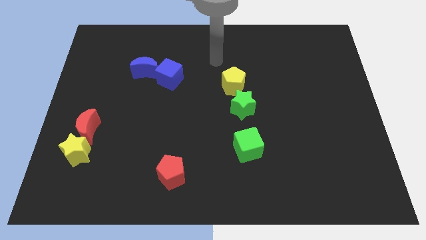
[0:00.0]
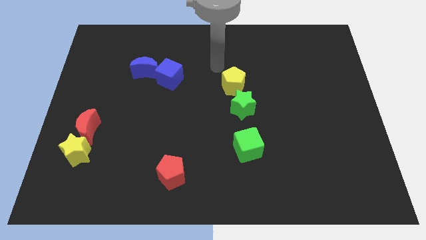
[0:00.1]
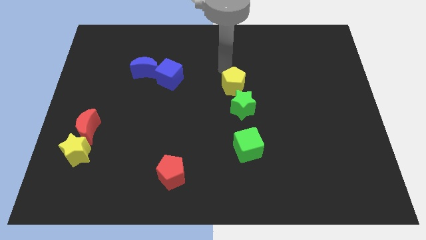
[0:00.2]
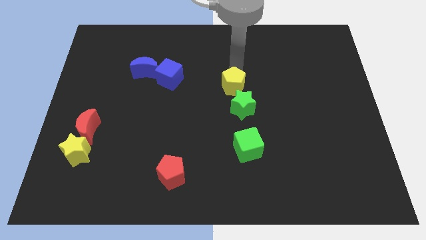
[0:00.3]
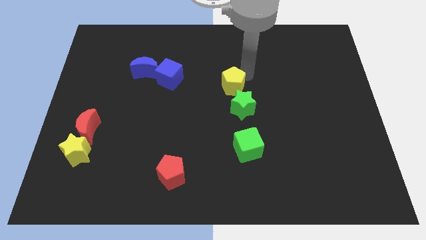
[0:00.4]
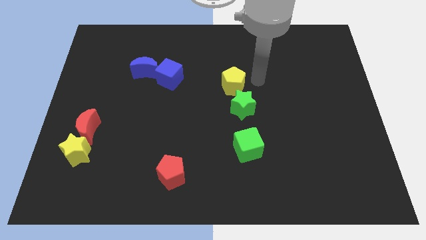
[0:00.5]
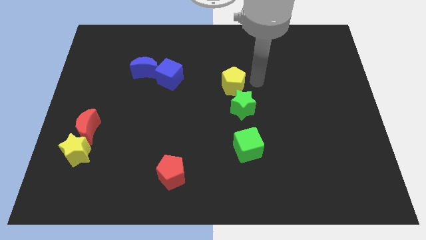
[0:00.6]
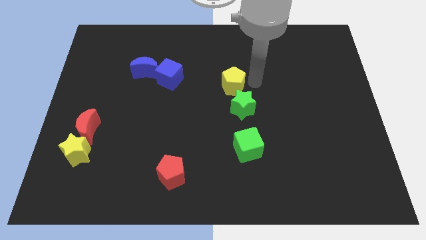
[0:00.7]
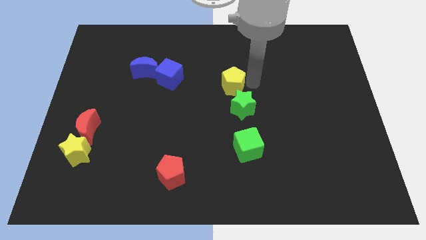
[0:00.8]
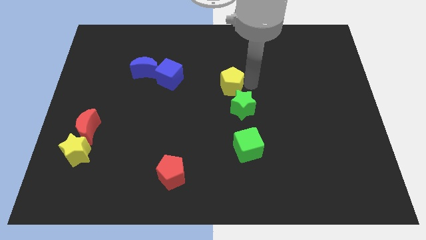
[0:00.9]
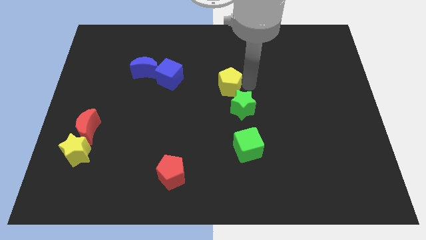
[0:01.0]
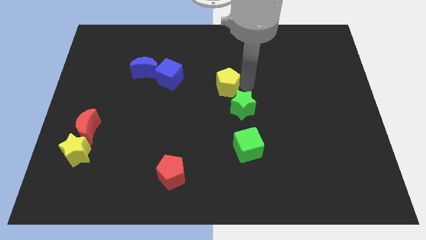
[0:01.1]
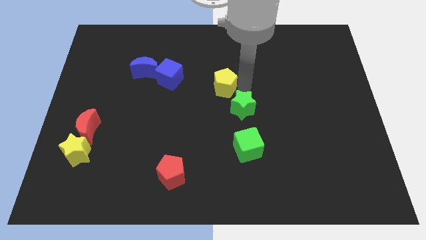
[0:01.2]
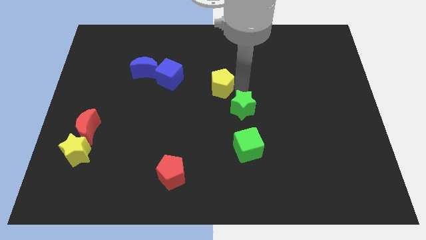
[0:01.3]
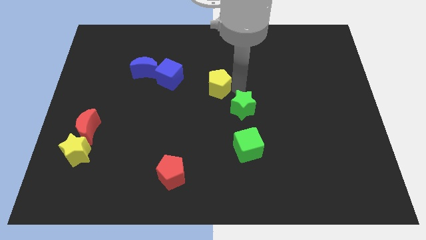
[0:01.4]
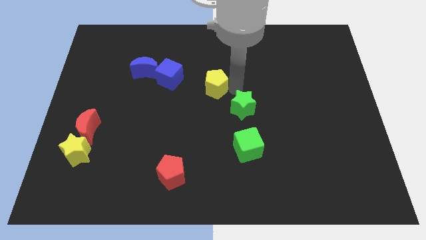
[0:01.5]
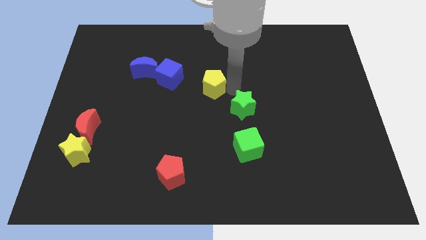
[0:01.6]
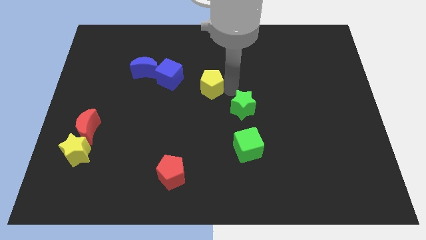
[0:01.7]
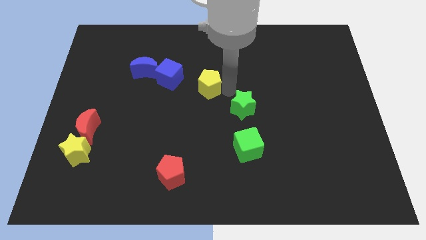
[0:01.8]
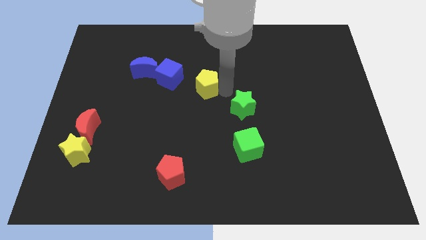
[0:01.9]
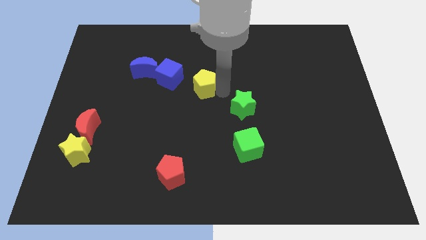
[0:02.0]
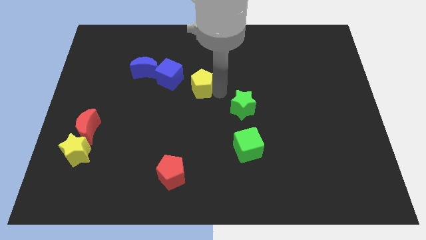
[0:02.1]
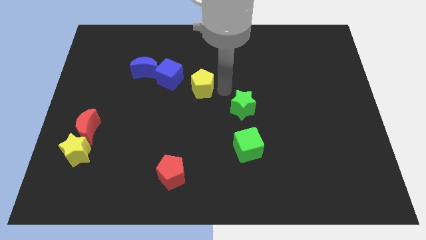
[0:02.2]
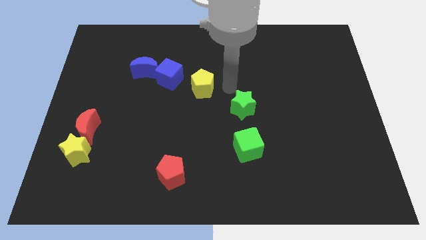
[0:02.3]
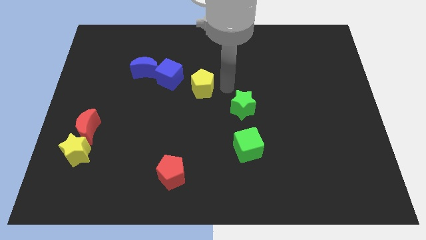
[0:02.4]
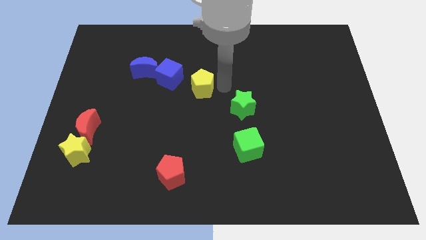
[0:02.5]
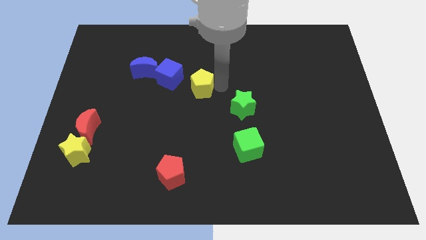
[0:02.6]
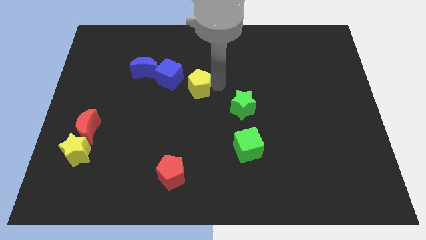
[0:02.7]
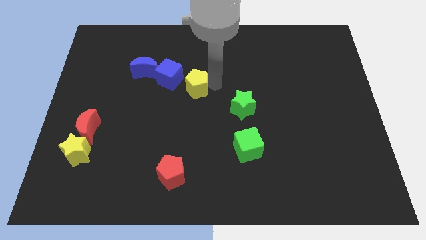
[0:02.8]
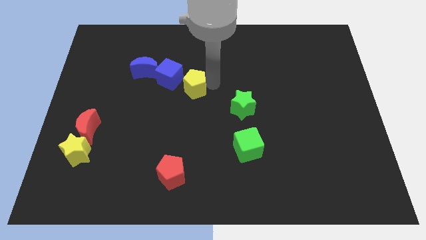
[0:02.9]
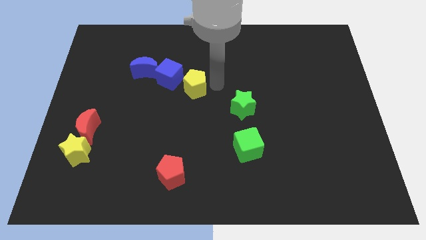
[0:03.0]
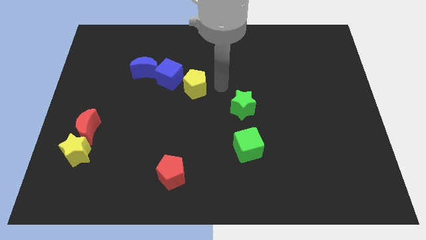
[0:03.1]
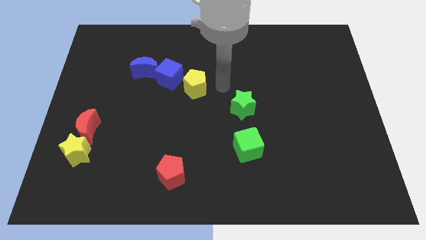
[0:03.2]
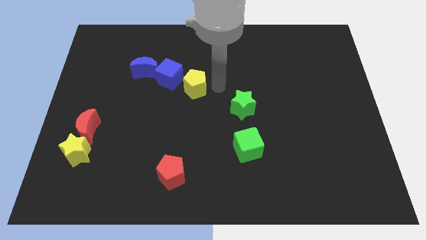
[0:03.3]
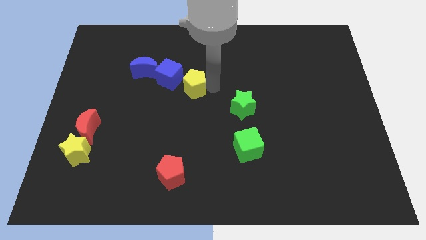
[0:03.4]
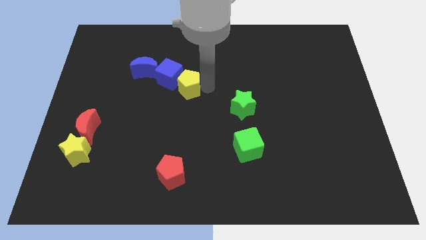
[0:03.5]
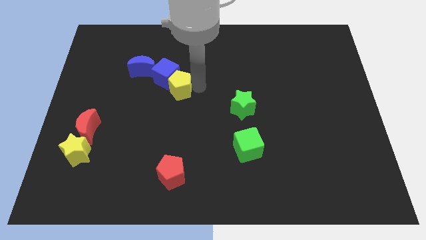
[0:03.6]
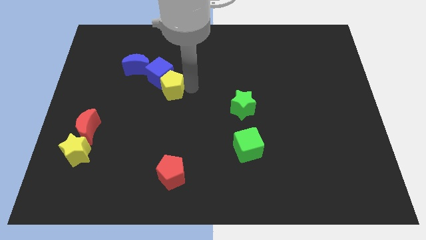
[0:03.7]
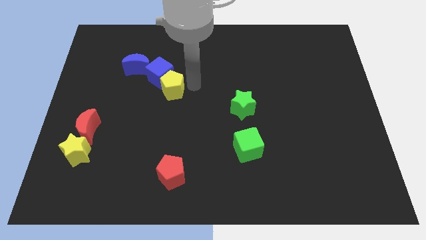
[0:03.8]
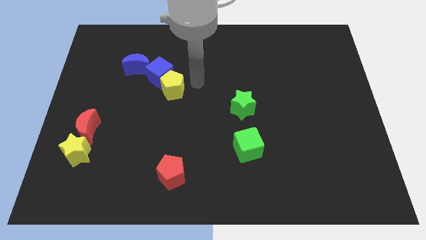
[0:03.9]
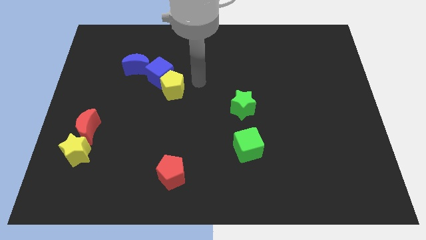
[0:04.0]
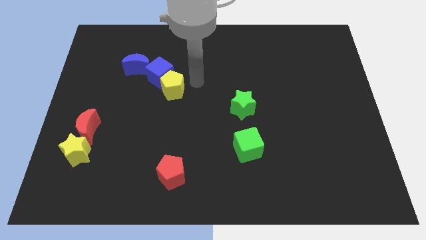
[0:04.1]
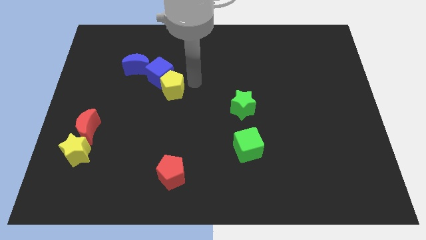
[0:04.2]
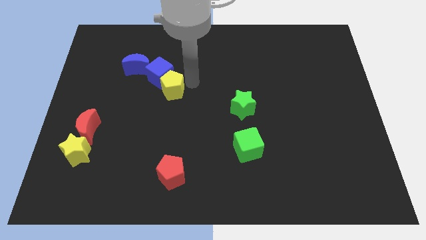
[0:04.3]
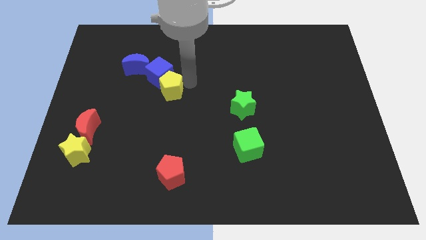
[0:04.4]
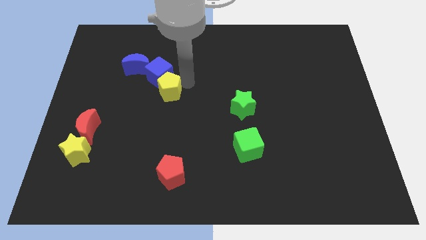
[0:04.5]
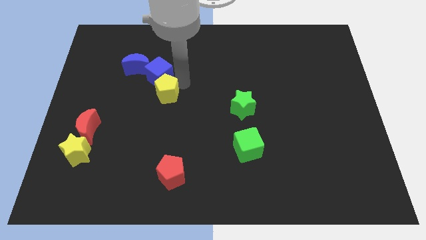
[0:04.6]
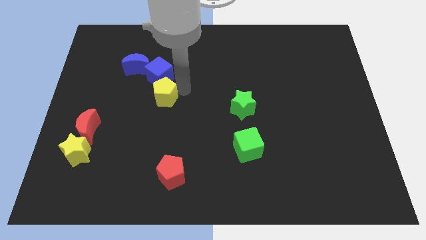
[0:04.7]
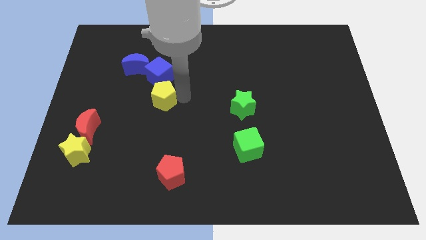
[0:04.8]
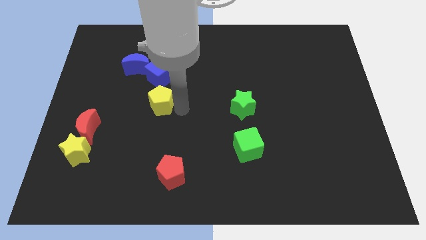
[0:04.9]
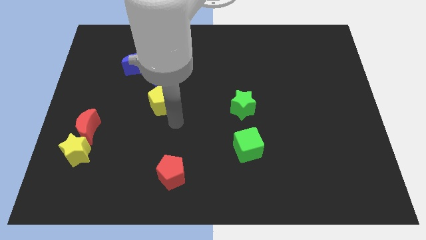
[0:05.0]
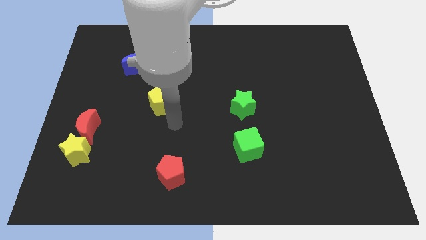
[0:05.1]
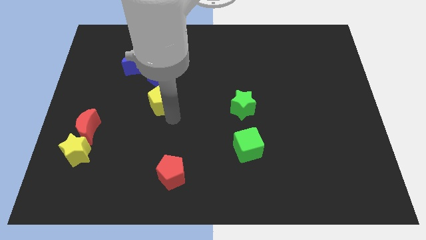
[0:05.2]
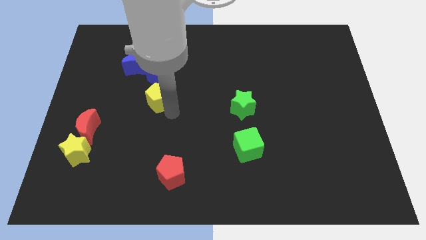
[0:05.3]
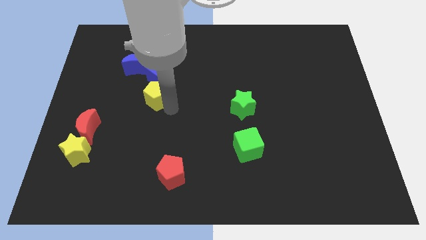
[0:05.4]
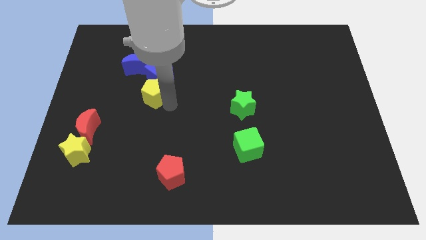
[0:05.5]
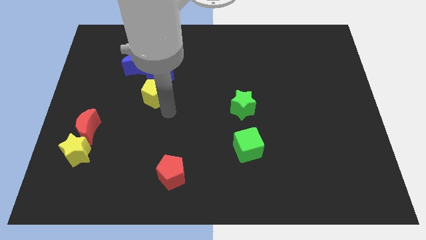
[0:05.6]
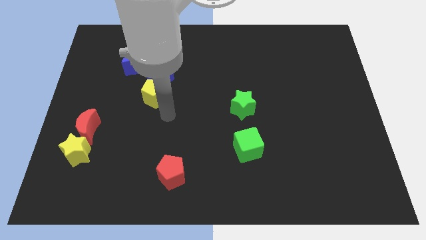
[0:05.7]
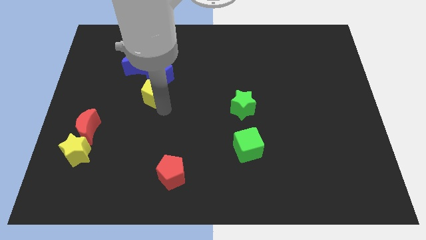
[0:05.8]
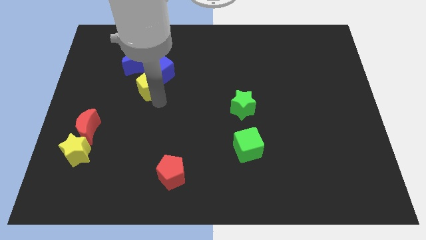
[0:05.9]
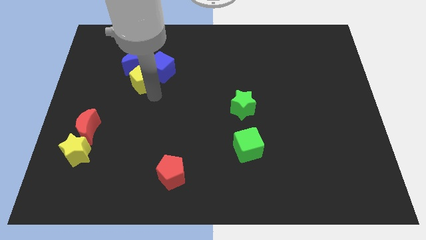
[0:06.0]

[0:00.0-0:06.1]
push the yellow pentagon to the blue moon

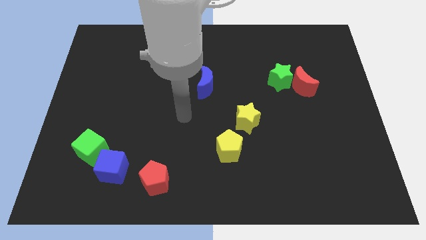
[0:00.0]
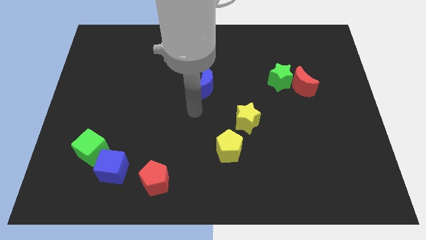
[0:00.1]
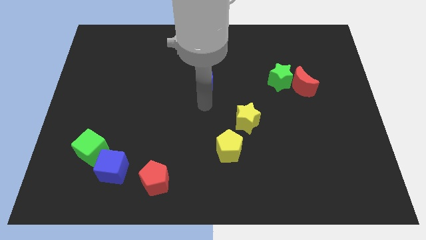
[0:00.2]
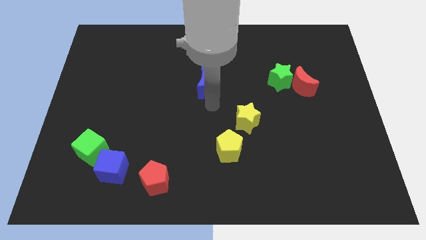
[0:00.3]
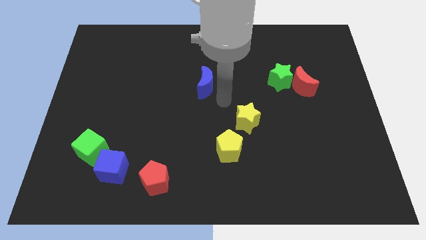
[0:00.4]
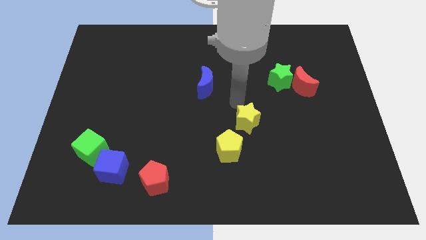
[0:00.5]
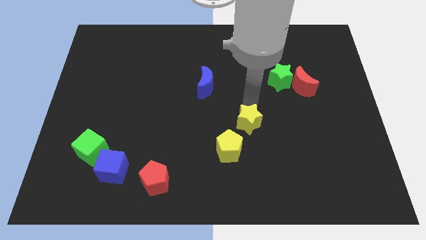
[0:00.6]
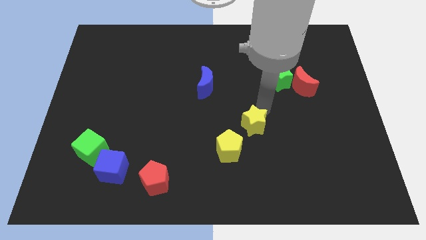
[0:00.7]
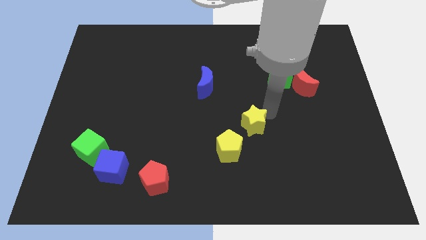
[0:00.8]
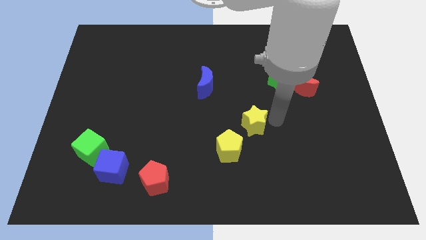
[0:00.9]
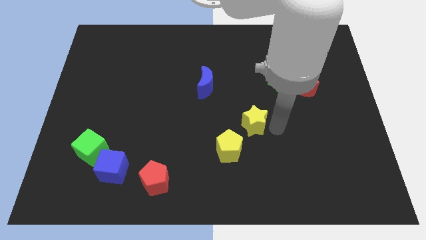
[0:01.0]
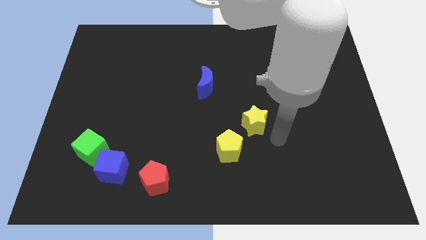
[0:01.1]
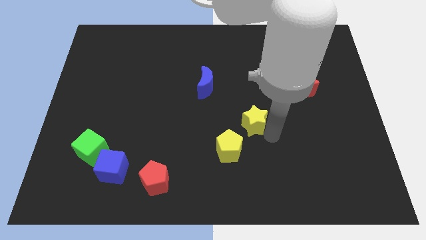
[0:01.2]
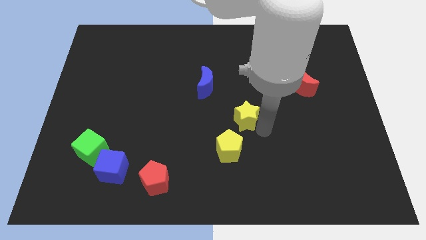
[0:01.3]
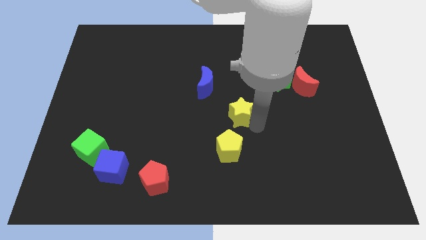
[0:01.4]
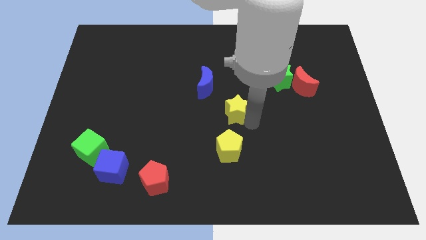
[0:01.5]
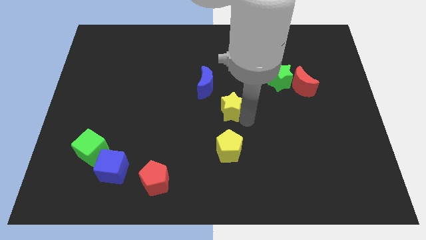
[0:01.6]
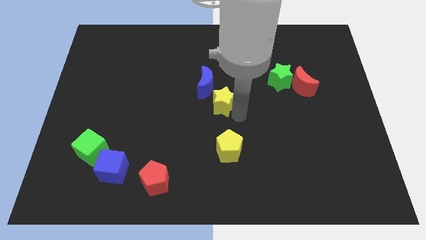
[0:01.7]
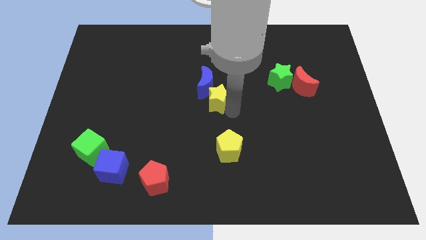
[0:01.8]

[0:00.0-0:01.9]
move the yellow star close to the blue moon
